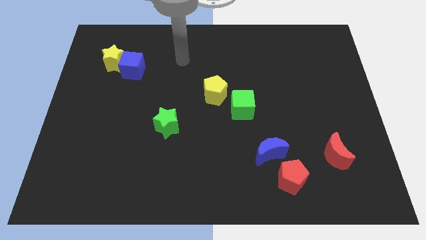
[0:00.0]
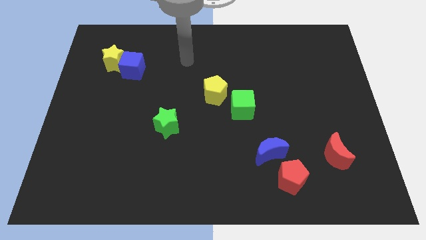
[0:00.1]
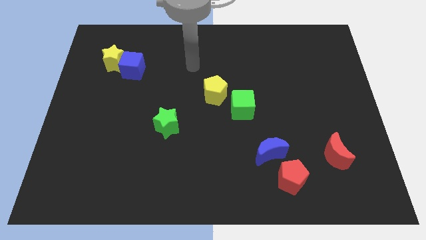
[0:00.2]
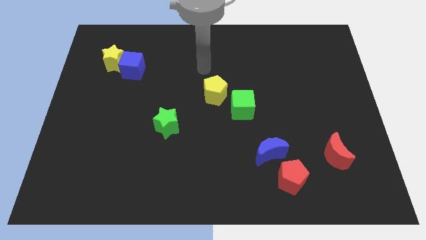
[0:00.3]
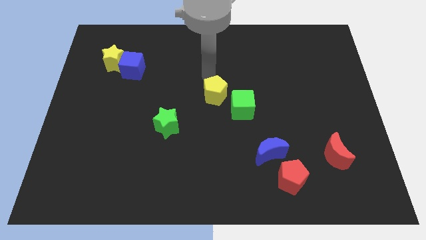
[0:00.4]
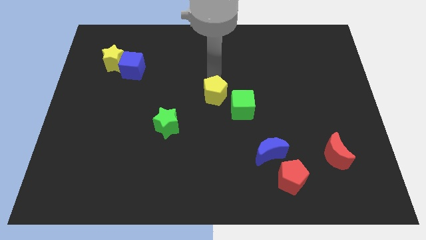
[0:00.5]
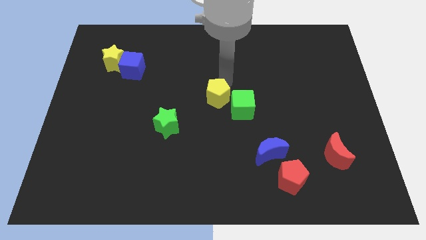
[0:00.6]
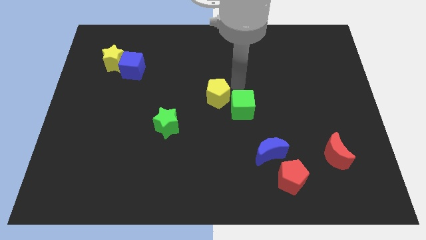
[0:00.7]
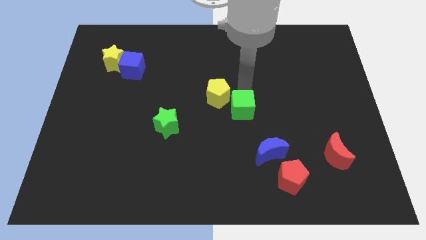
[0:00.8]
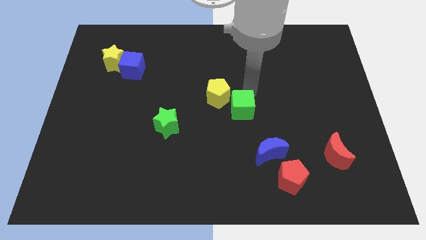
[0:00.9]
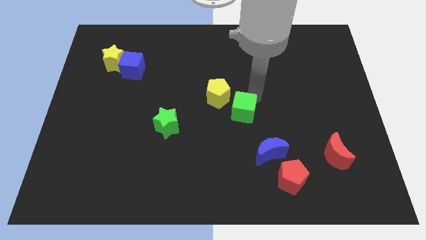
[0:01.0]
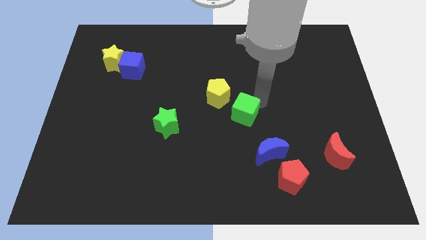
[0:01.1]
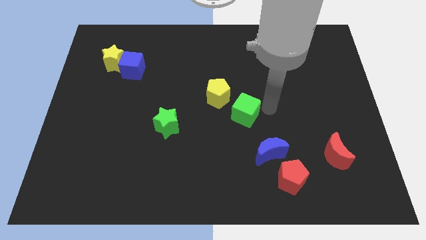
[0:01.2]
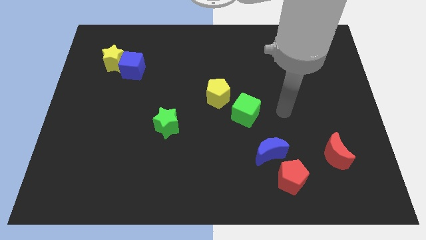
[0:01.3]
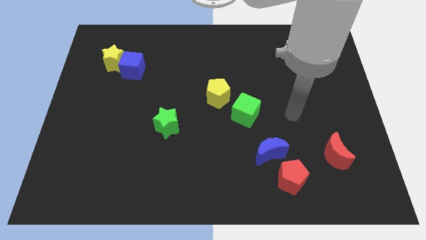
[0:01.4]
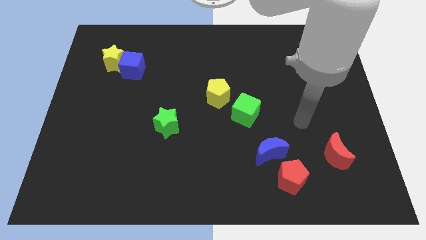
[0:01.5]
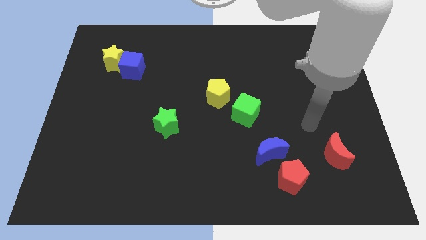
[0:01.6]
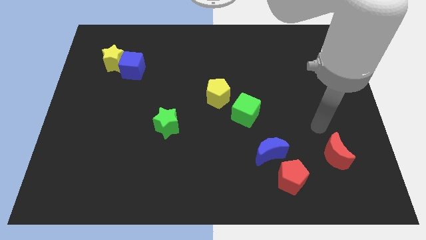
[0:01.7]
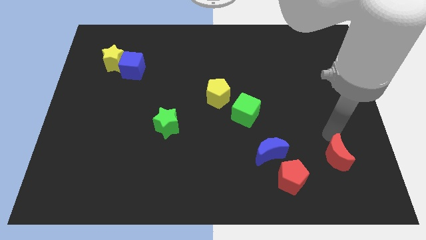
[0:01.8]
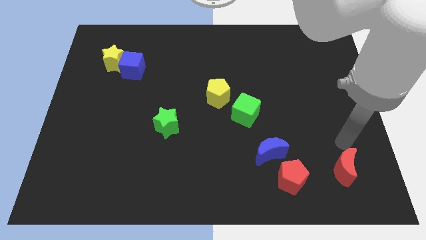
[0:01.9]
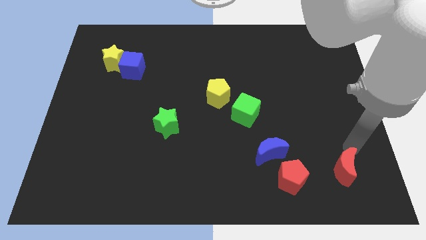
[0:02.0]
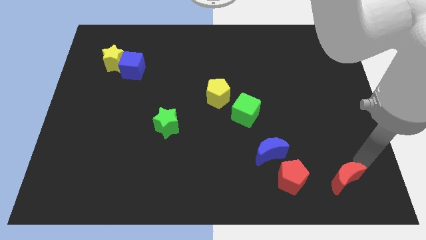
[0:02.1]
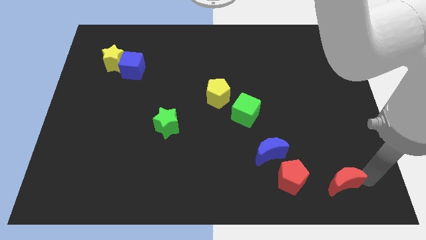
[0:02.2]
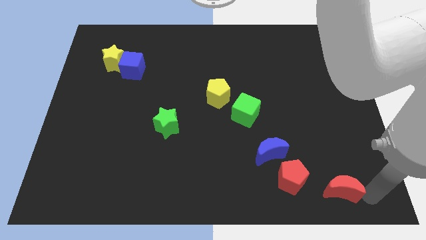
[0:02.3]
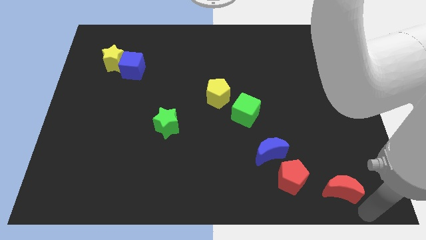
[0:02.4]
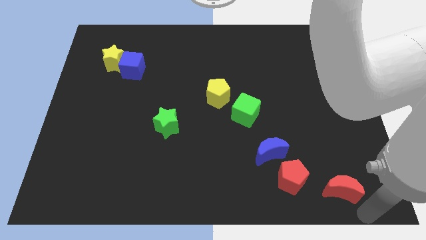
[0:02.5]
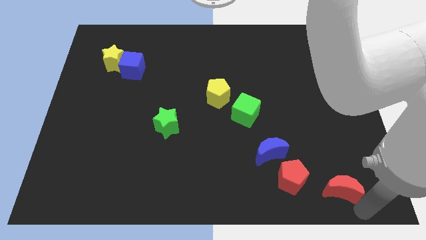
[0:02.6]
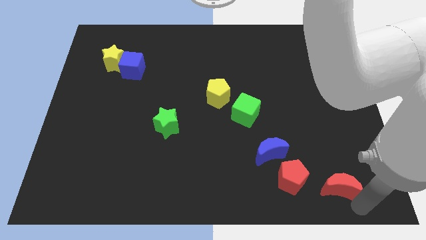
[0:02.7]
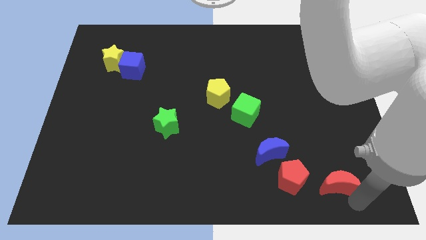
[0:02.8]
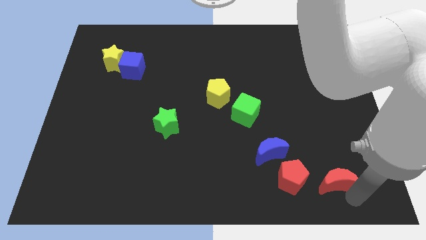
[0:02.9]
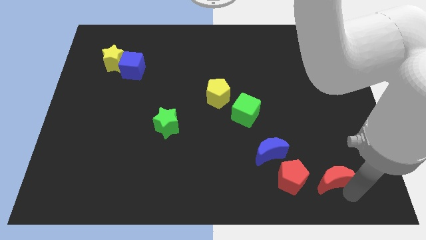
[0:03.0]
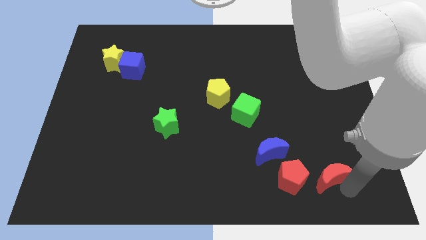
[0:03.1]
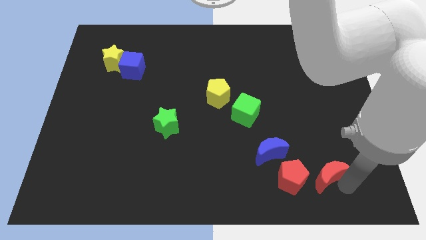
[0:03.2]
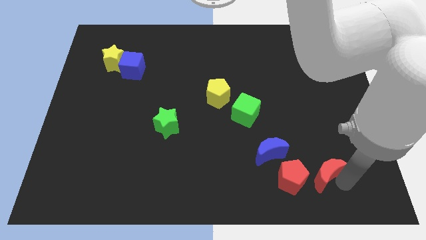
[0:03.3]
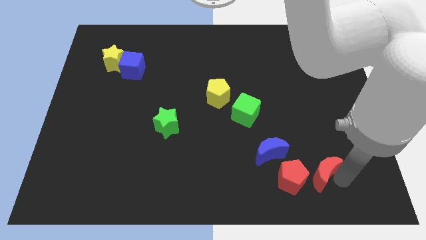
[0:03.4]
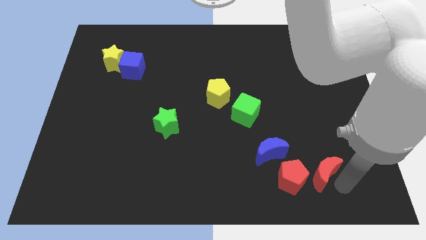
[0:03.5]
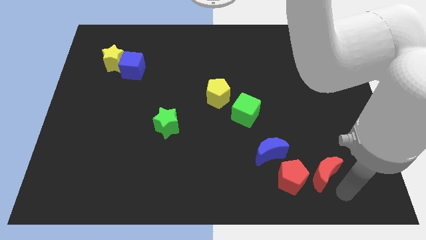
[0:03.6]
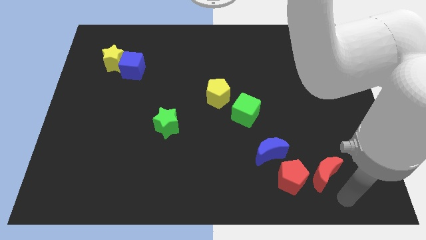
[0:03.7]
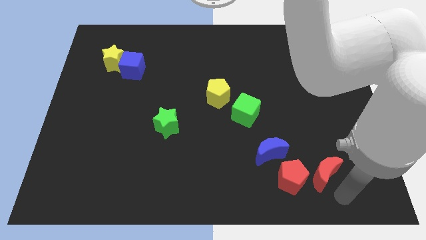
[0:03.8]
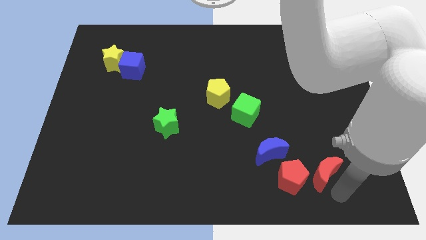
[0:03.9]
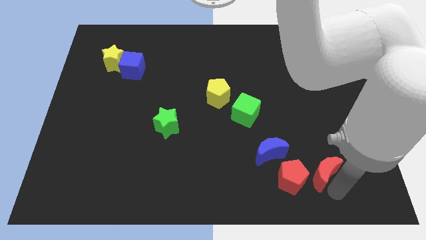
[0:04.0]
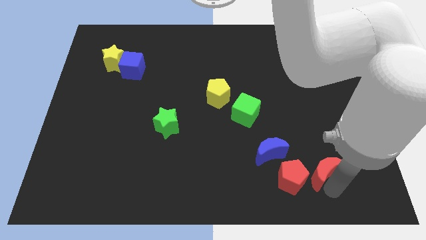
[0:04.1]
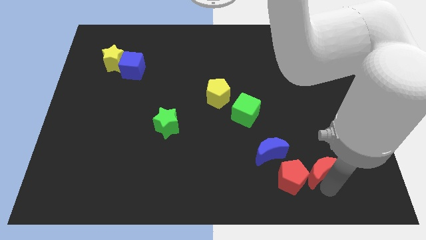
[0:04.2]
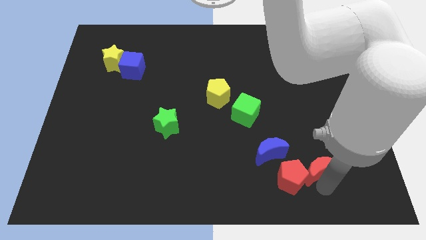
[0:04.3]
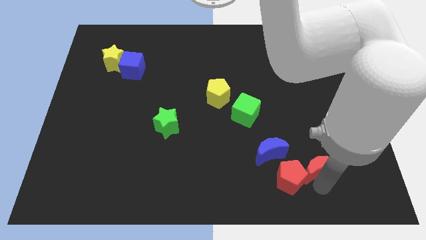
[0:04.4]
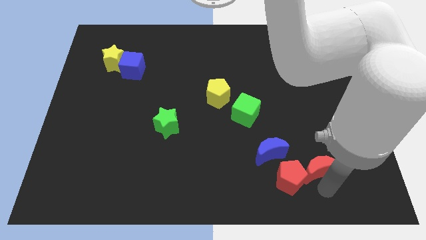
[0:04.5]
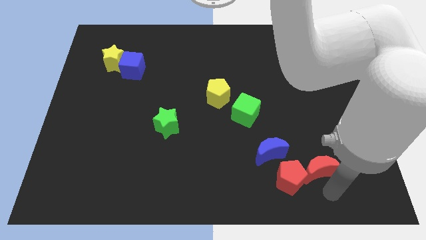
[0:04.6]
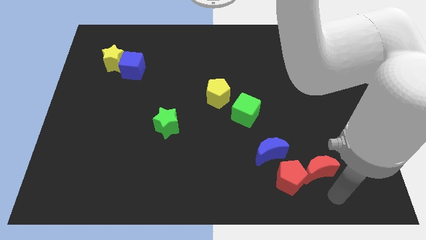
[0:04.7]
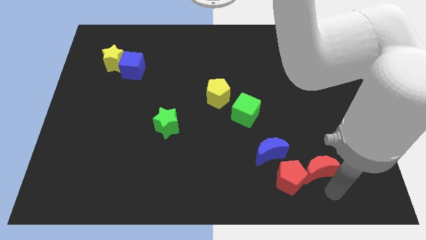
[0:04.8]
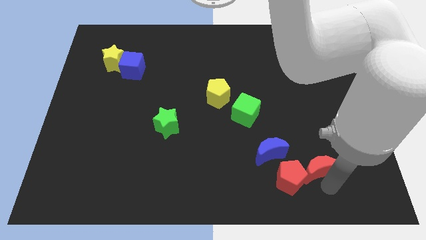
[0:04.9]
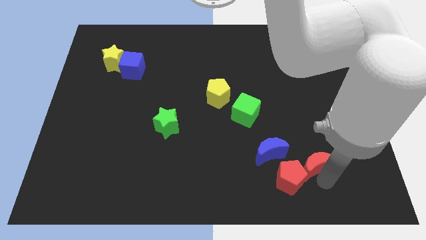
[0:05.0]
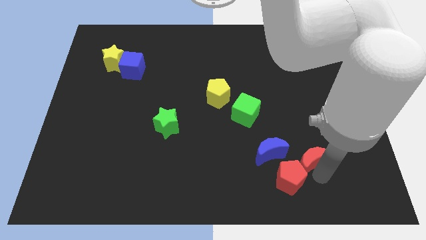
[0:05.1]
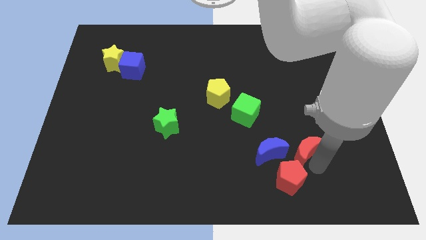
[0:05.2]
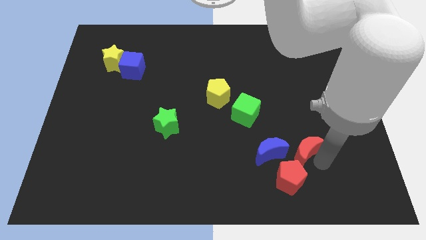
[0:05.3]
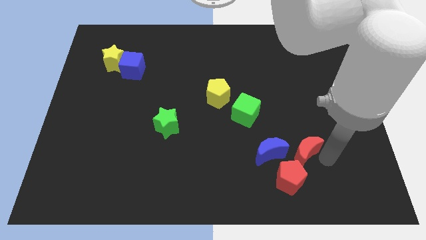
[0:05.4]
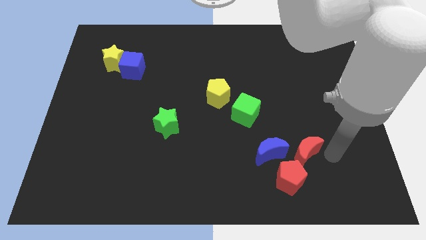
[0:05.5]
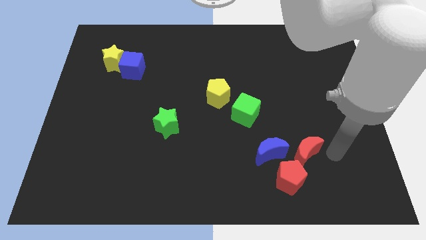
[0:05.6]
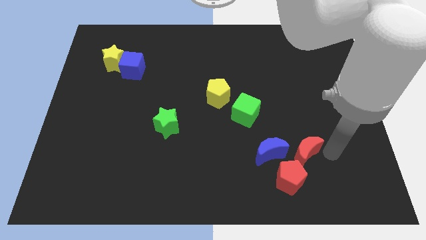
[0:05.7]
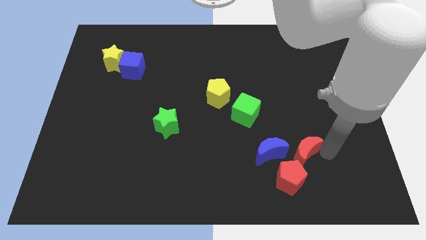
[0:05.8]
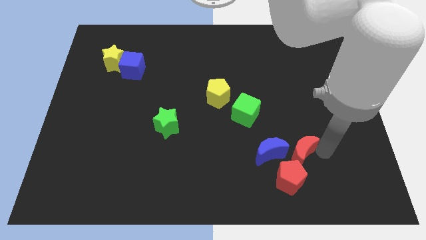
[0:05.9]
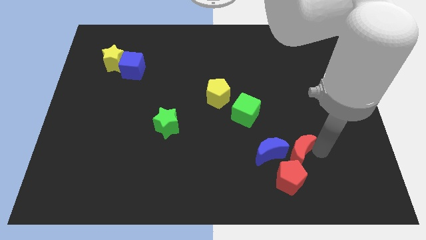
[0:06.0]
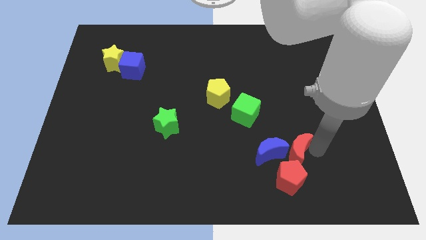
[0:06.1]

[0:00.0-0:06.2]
move the red moon to the blue moon

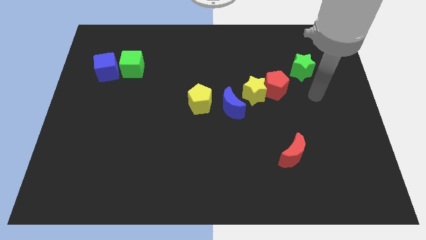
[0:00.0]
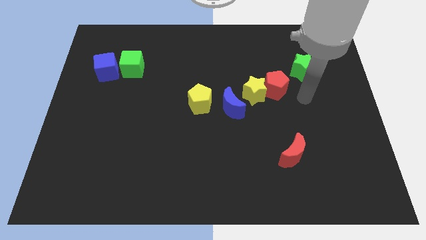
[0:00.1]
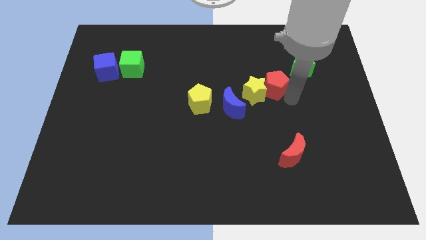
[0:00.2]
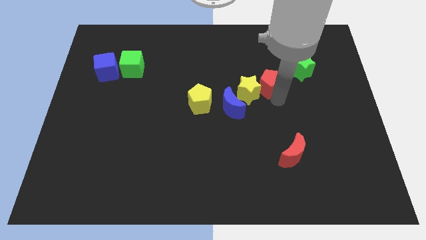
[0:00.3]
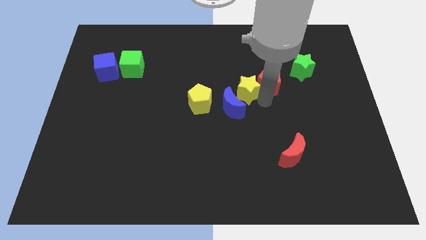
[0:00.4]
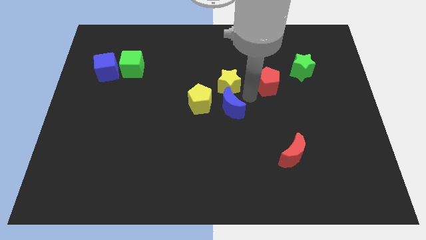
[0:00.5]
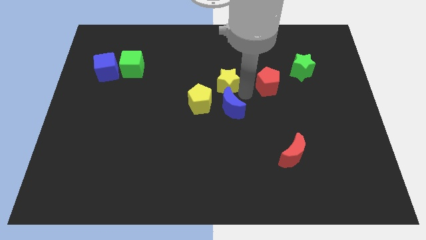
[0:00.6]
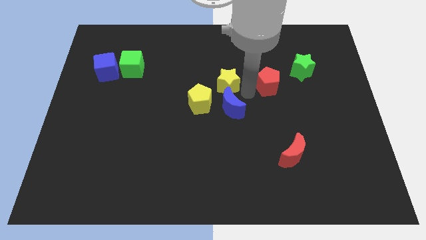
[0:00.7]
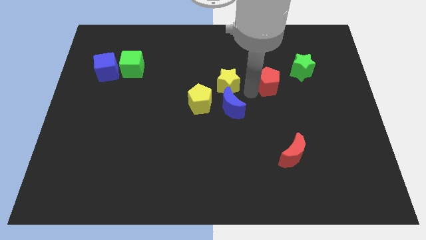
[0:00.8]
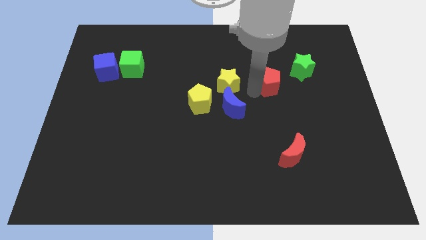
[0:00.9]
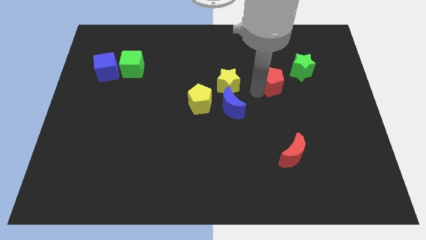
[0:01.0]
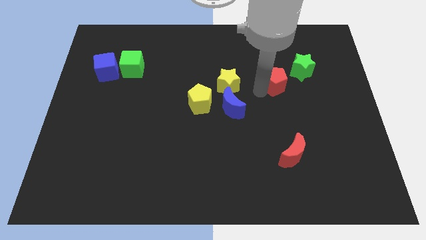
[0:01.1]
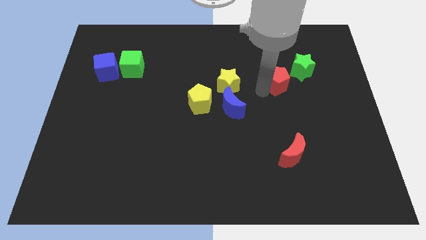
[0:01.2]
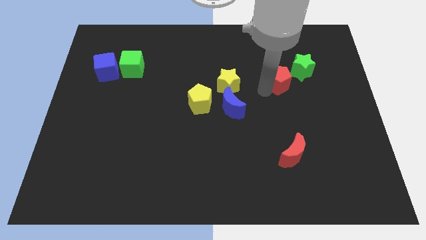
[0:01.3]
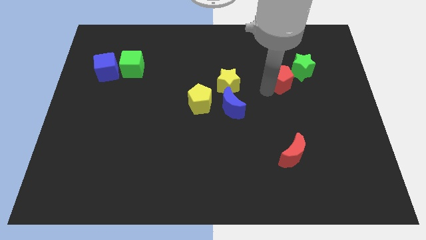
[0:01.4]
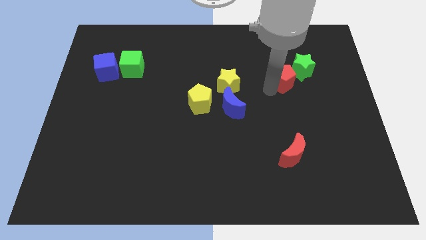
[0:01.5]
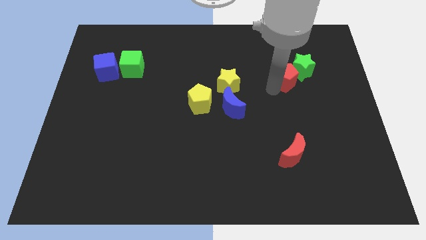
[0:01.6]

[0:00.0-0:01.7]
put the red pentagon to the green star
